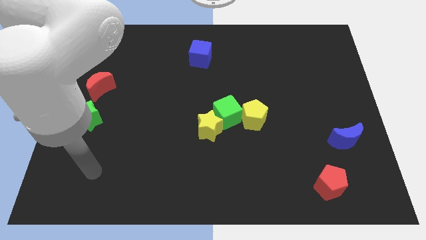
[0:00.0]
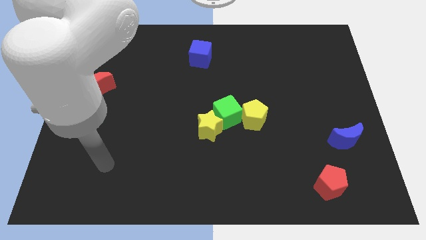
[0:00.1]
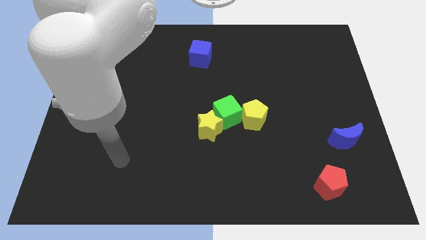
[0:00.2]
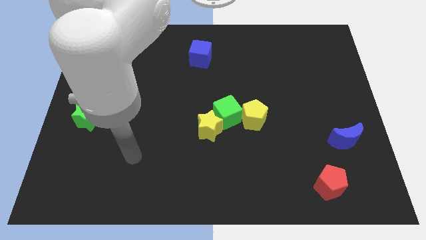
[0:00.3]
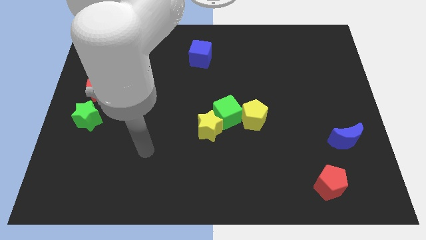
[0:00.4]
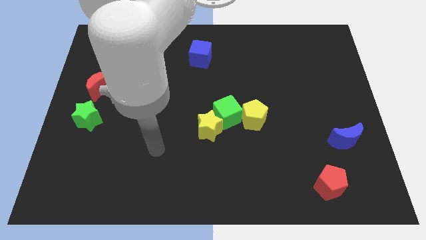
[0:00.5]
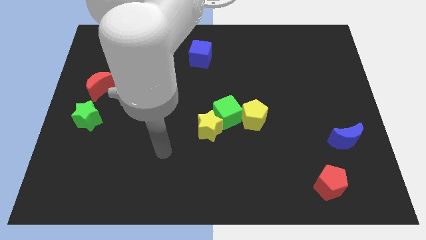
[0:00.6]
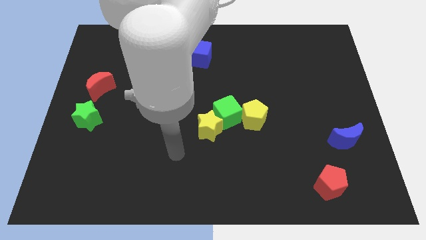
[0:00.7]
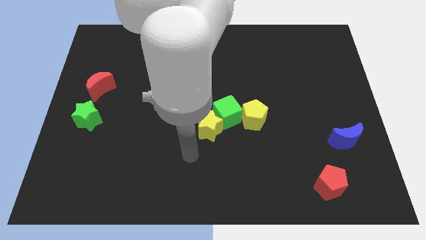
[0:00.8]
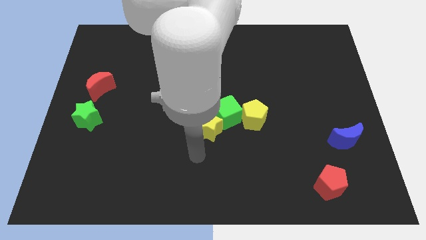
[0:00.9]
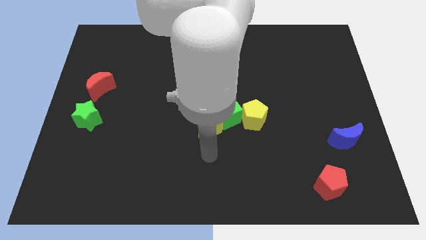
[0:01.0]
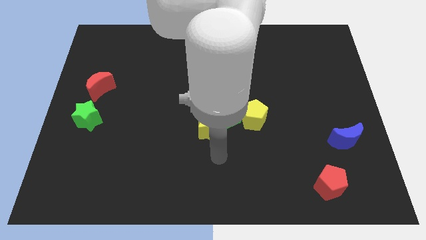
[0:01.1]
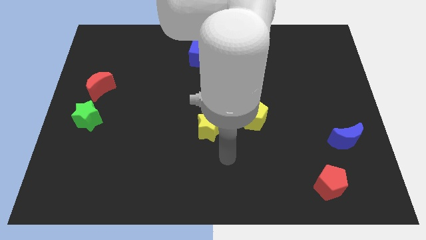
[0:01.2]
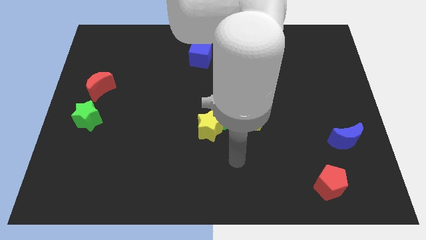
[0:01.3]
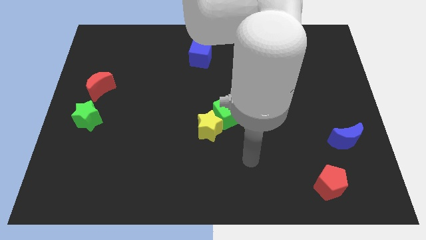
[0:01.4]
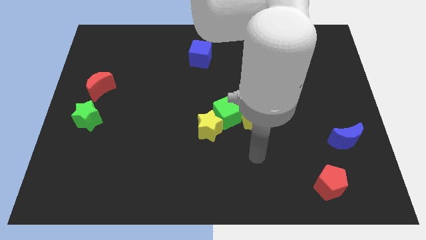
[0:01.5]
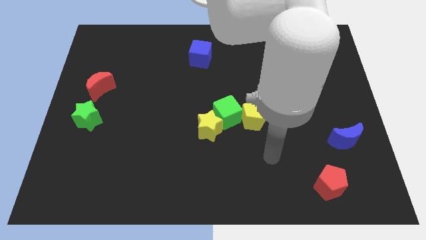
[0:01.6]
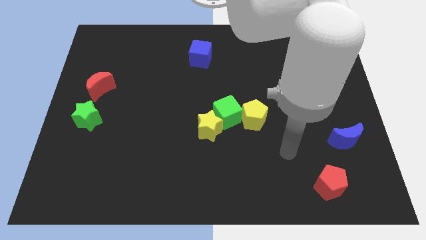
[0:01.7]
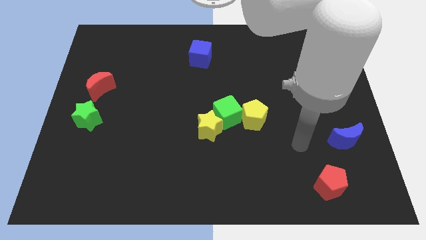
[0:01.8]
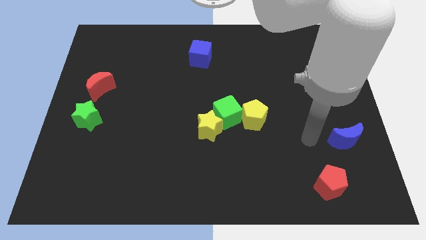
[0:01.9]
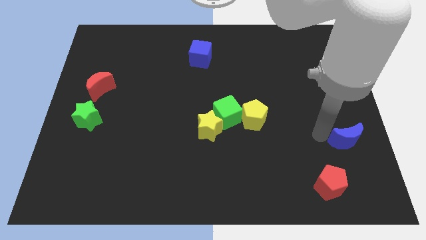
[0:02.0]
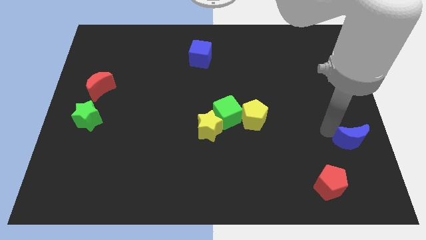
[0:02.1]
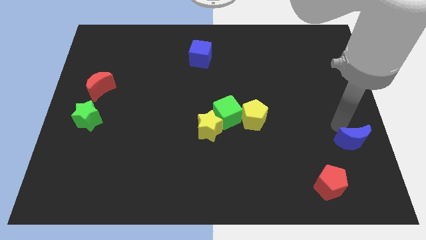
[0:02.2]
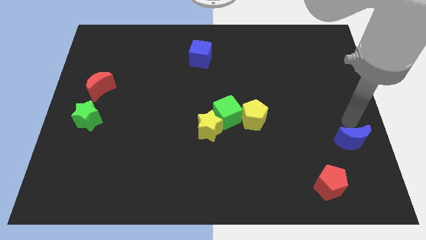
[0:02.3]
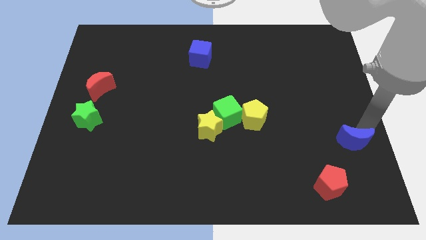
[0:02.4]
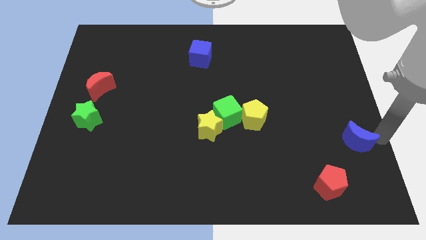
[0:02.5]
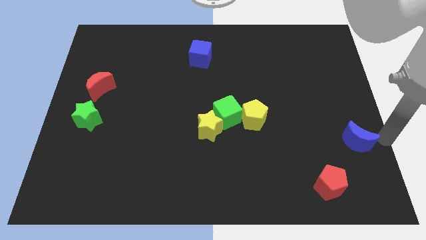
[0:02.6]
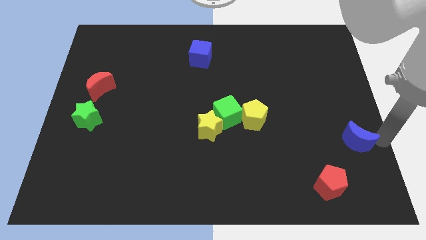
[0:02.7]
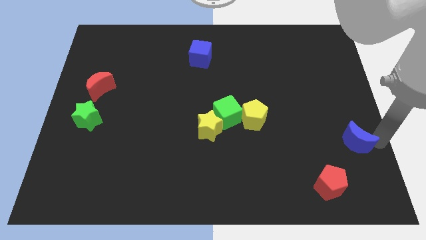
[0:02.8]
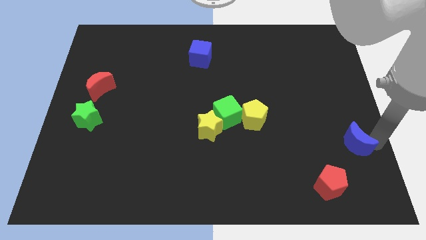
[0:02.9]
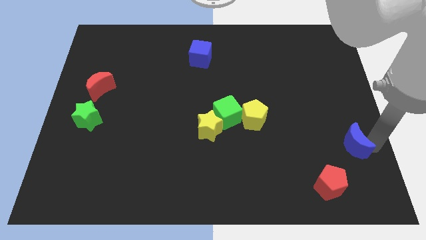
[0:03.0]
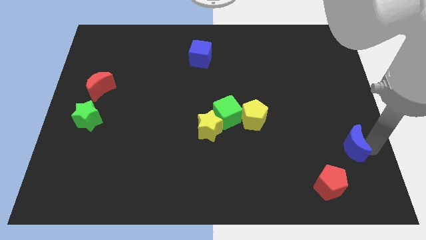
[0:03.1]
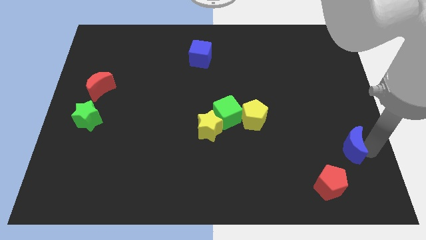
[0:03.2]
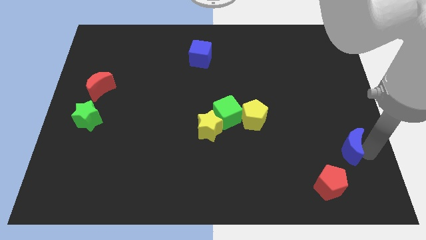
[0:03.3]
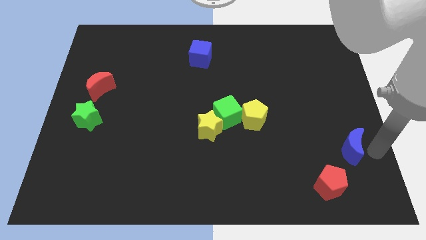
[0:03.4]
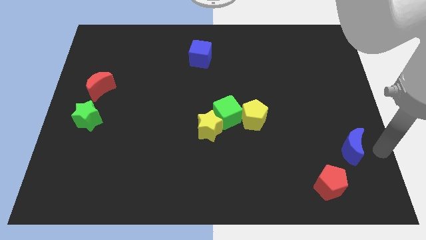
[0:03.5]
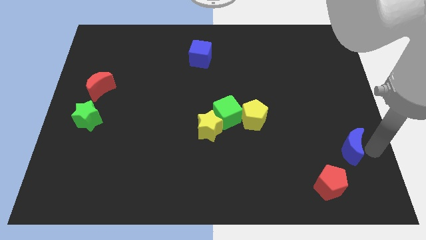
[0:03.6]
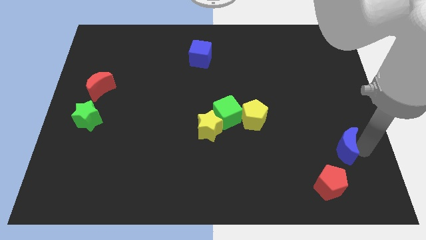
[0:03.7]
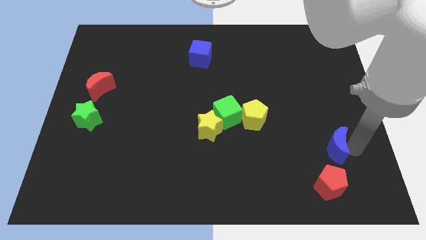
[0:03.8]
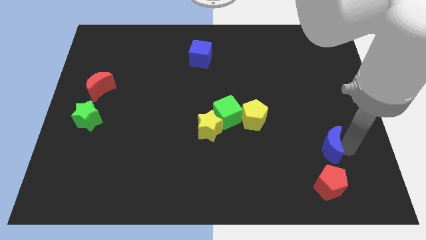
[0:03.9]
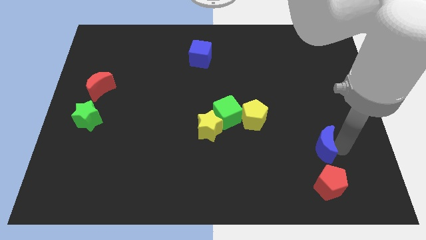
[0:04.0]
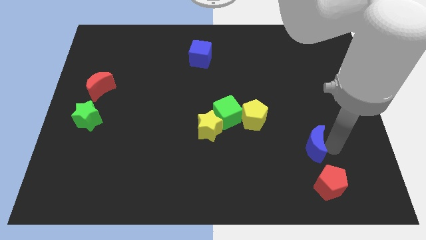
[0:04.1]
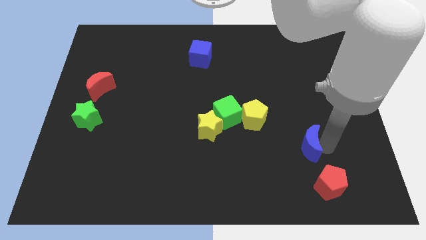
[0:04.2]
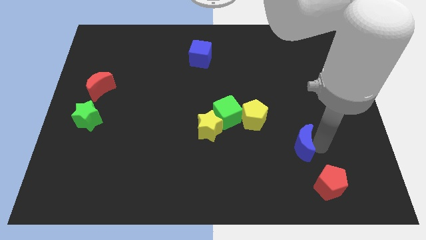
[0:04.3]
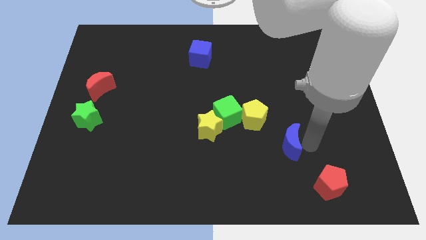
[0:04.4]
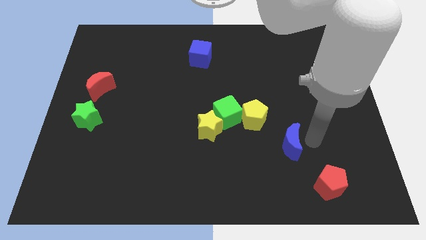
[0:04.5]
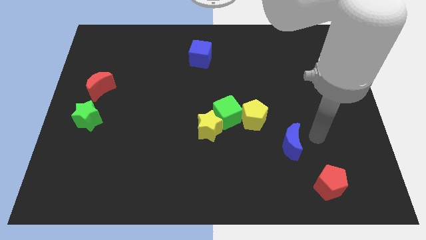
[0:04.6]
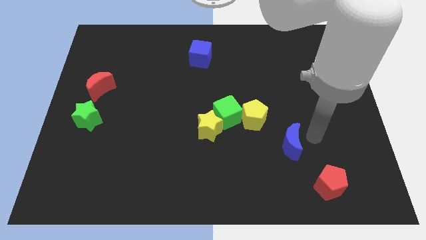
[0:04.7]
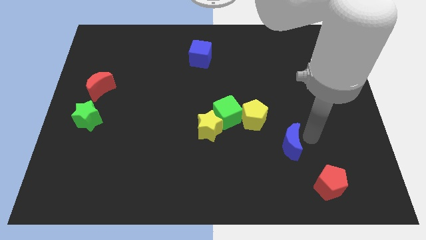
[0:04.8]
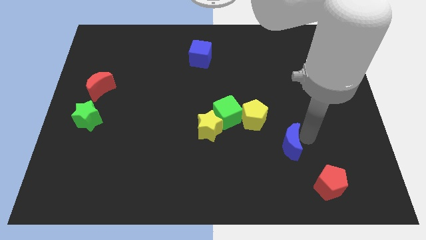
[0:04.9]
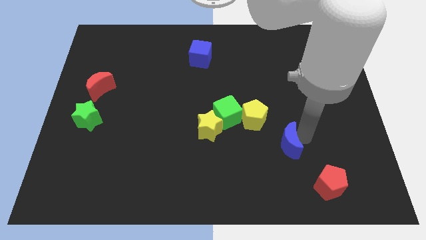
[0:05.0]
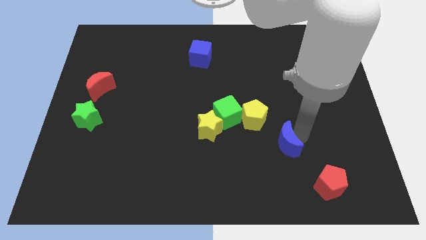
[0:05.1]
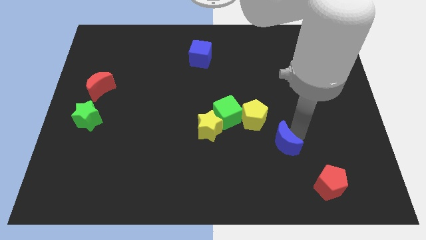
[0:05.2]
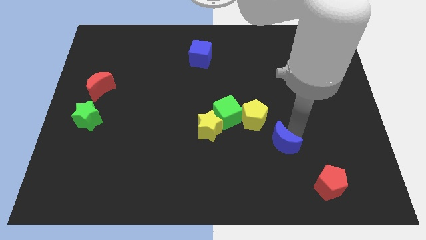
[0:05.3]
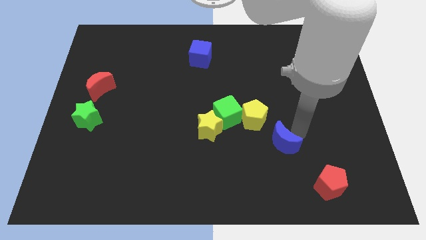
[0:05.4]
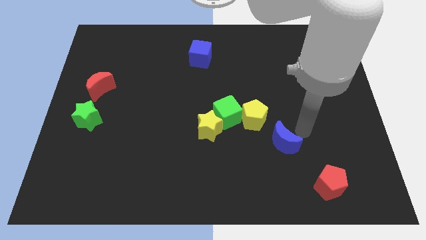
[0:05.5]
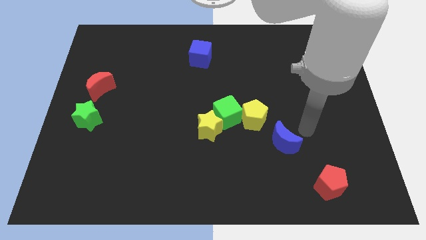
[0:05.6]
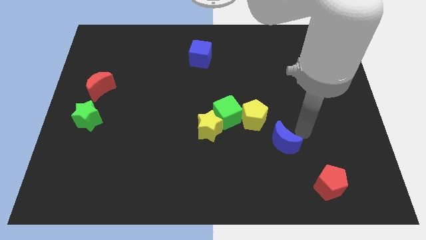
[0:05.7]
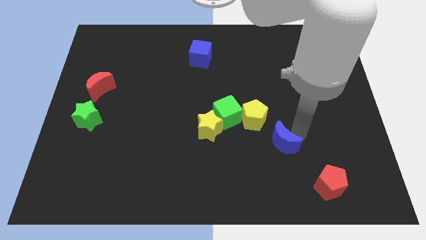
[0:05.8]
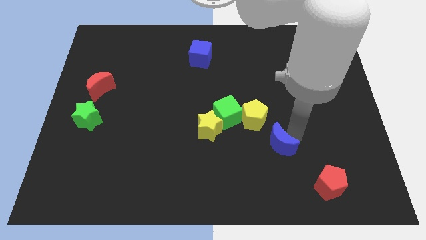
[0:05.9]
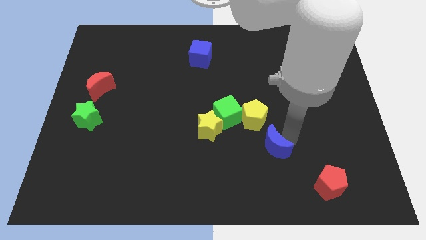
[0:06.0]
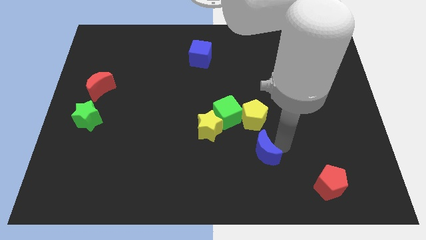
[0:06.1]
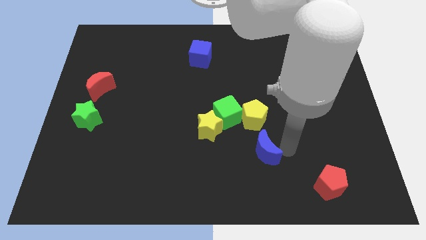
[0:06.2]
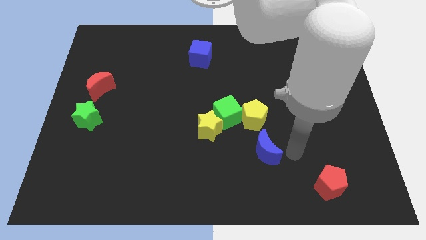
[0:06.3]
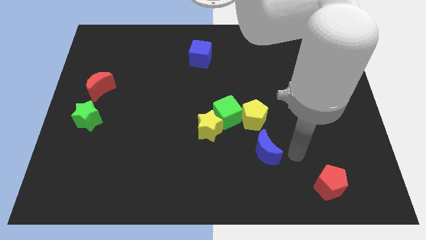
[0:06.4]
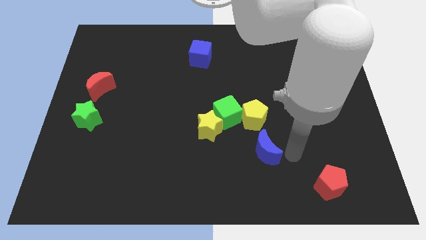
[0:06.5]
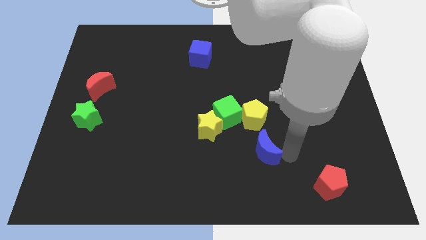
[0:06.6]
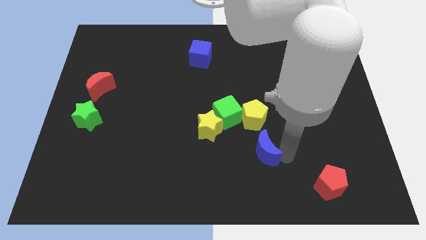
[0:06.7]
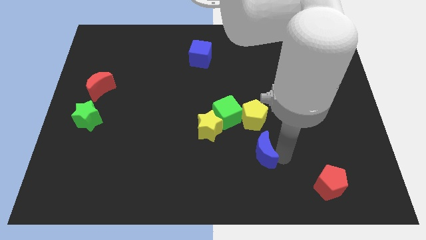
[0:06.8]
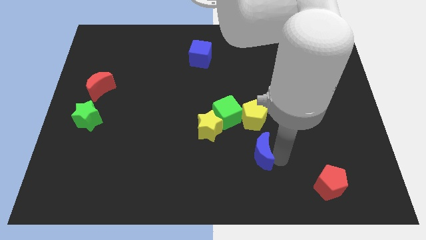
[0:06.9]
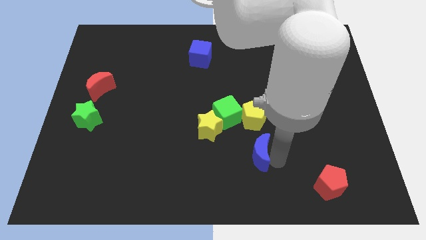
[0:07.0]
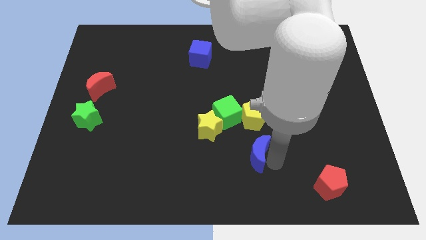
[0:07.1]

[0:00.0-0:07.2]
slide the blue moon diagonally down and to the right of the yellow star
